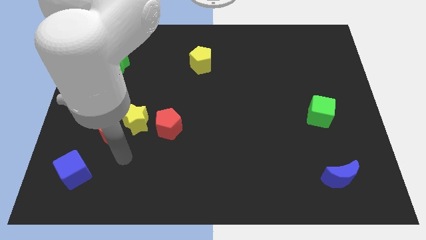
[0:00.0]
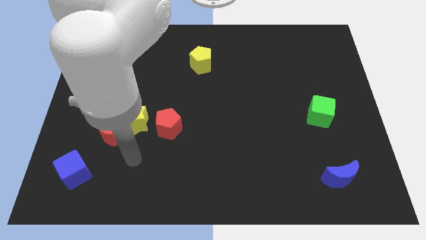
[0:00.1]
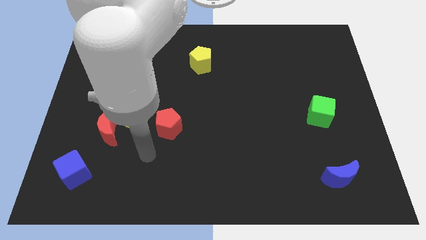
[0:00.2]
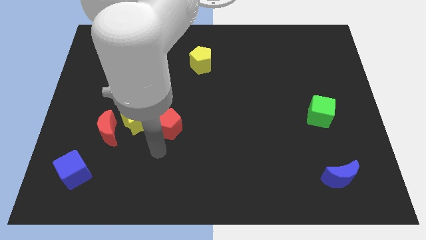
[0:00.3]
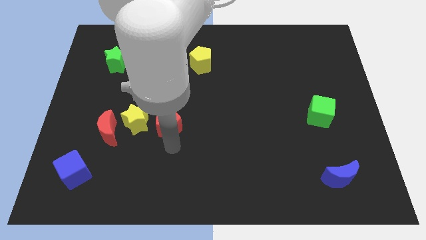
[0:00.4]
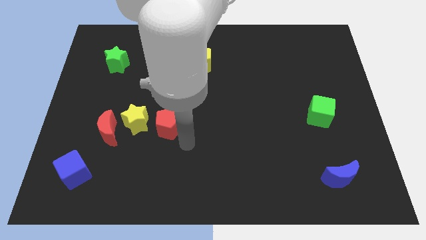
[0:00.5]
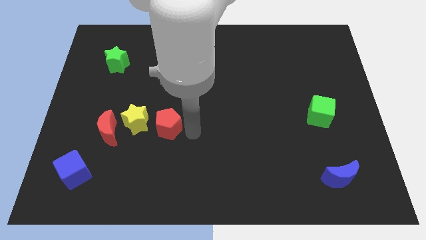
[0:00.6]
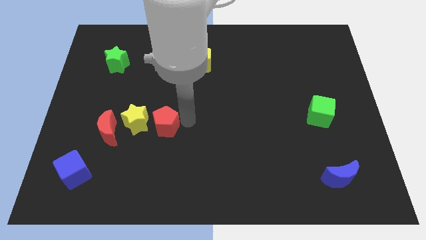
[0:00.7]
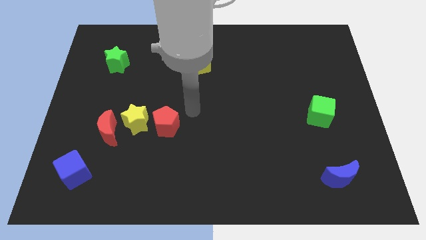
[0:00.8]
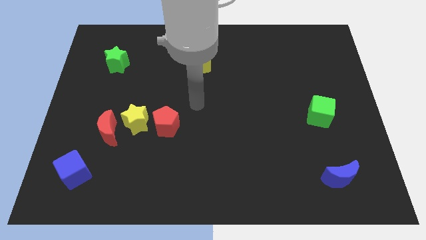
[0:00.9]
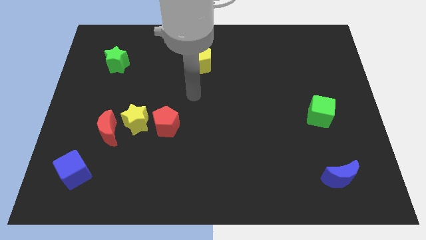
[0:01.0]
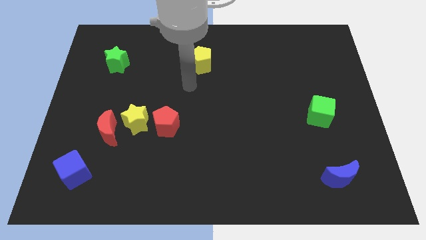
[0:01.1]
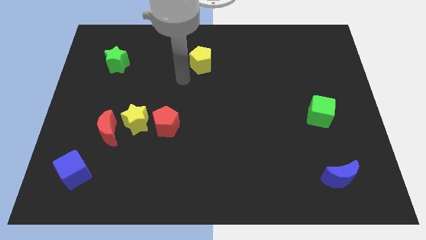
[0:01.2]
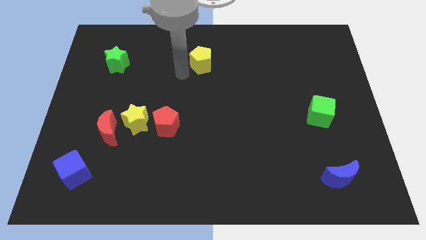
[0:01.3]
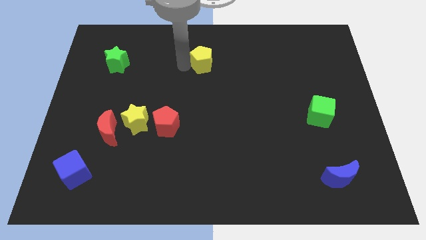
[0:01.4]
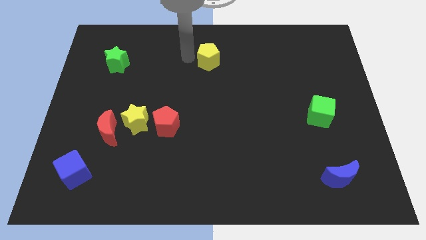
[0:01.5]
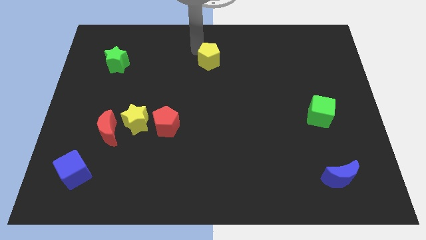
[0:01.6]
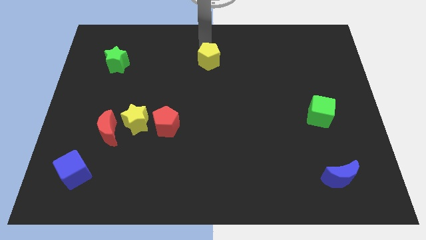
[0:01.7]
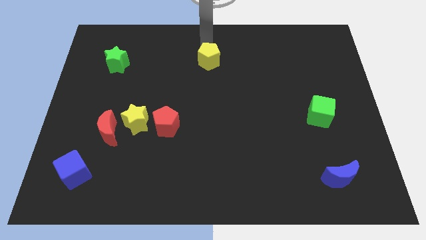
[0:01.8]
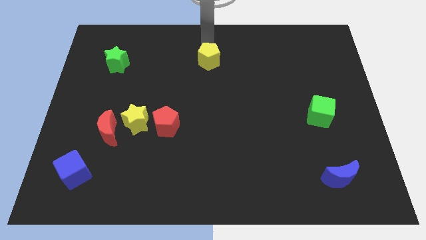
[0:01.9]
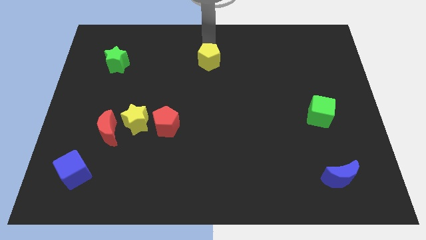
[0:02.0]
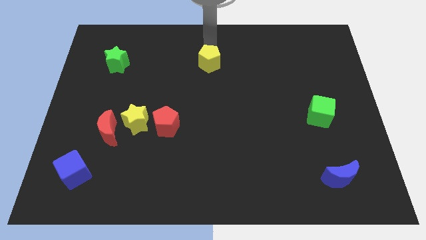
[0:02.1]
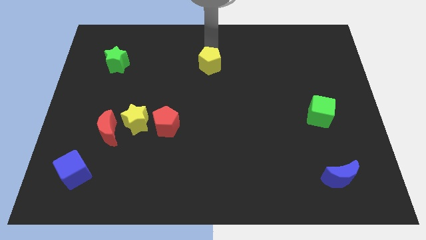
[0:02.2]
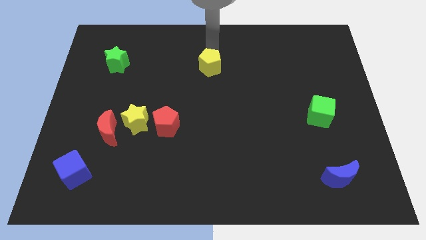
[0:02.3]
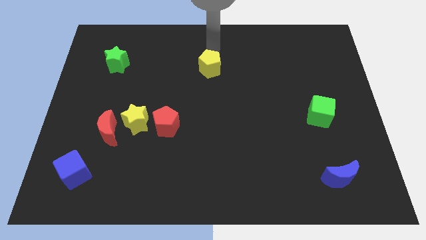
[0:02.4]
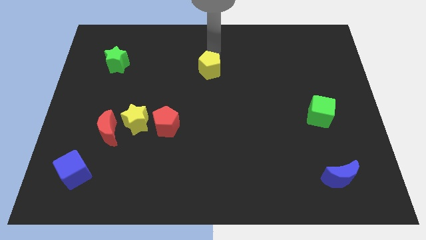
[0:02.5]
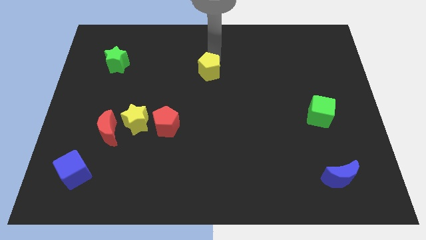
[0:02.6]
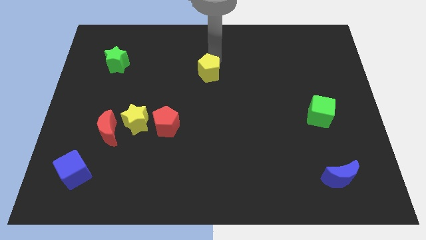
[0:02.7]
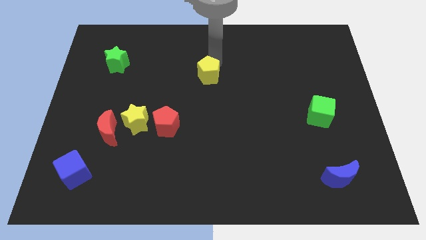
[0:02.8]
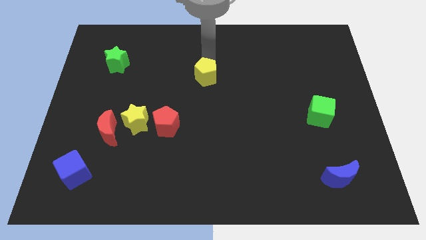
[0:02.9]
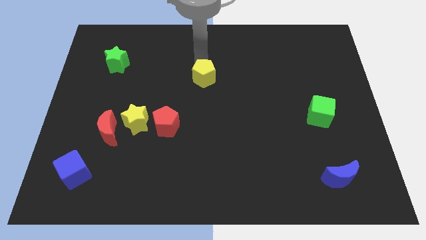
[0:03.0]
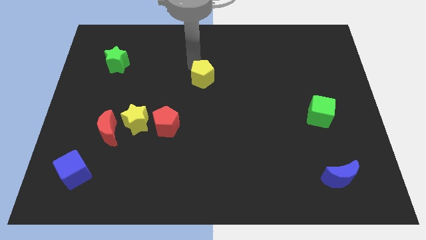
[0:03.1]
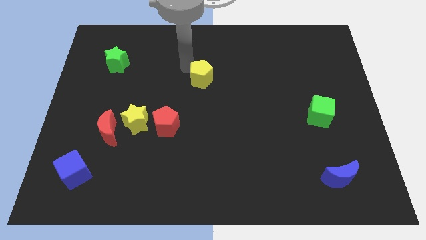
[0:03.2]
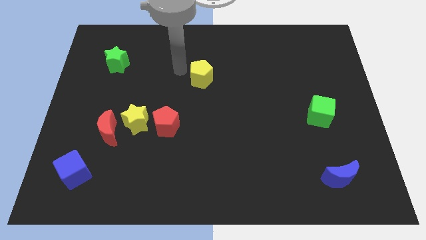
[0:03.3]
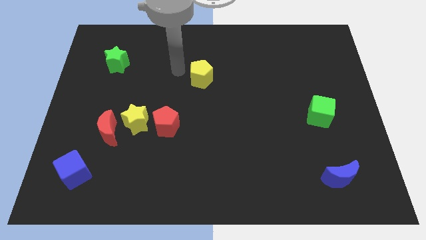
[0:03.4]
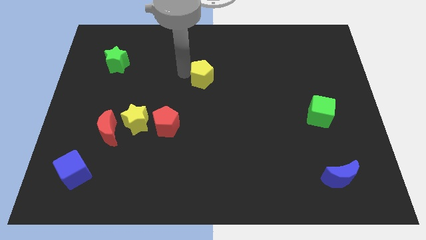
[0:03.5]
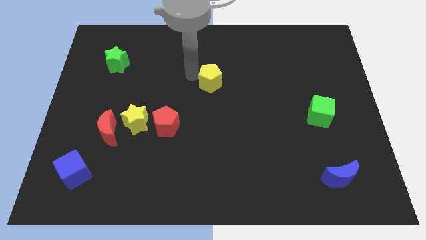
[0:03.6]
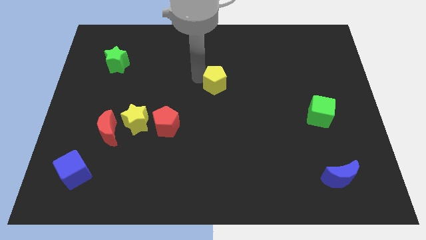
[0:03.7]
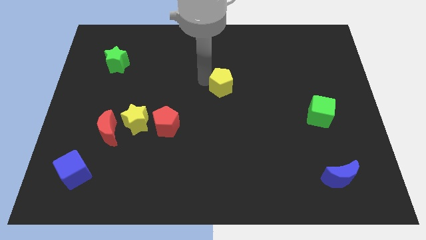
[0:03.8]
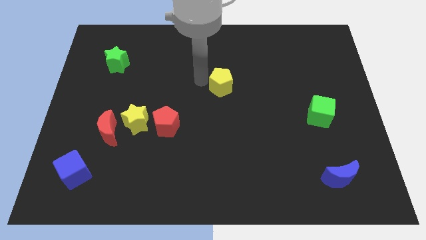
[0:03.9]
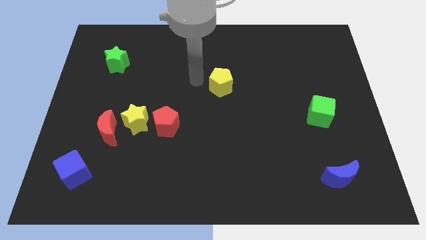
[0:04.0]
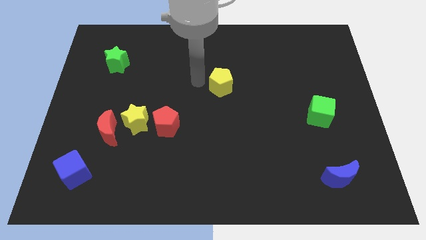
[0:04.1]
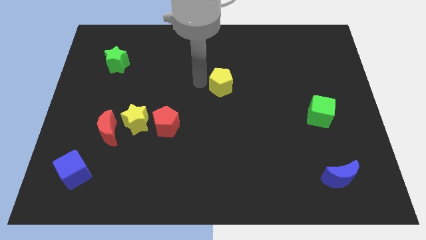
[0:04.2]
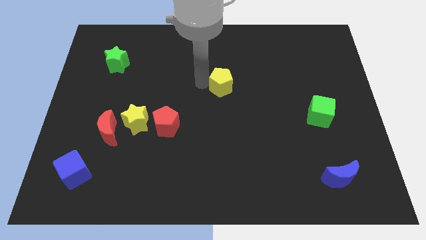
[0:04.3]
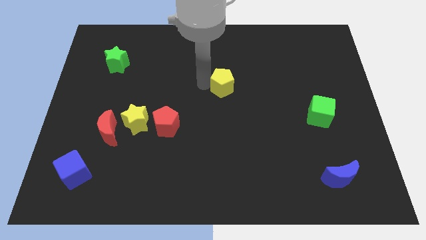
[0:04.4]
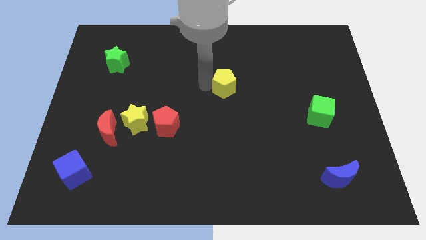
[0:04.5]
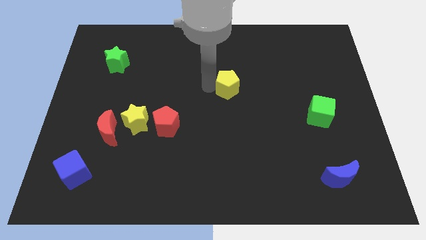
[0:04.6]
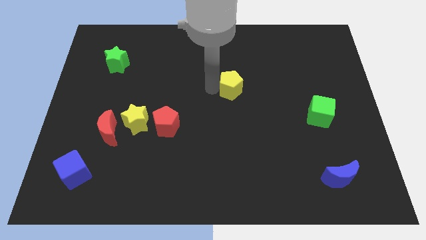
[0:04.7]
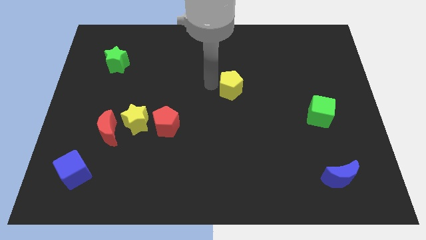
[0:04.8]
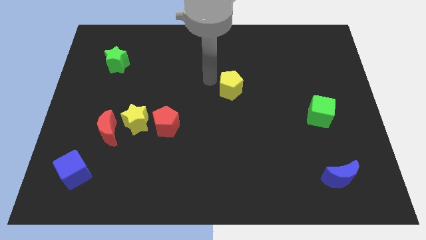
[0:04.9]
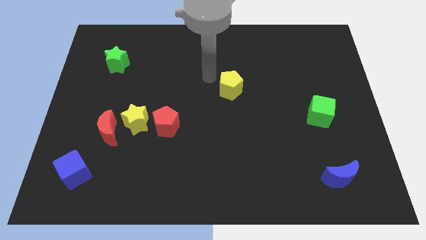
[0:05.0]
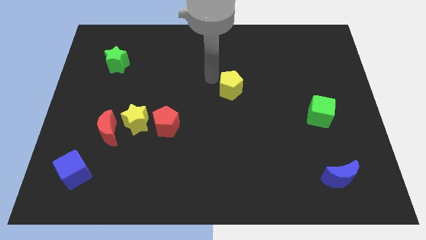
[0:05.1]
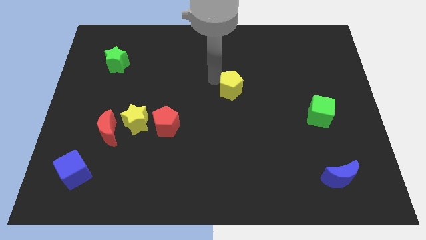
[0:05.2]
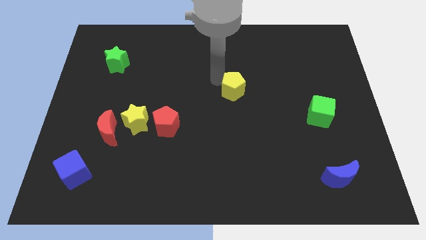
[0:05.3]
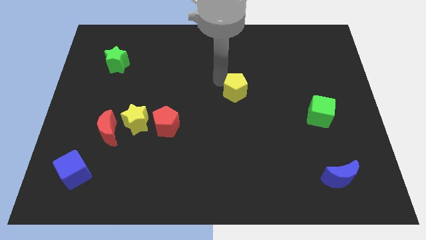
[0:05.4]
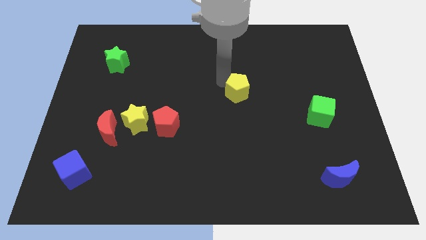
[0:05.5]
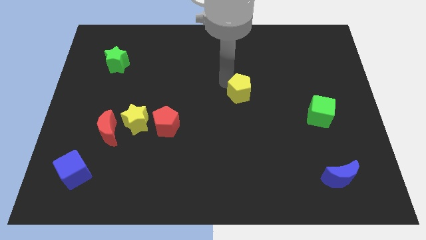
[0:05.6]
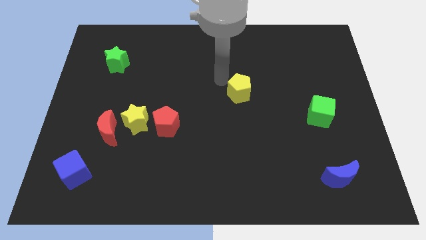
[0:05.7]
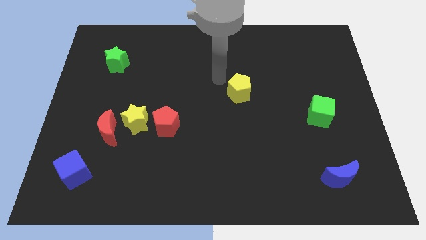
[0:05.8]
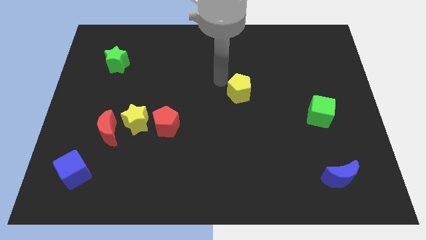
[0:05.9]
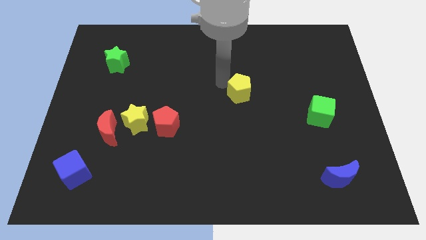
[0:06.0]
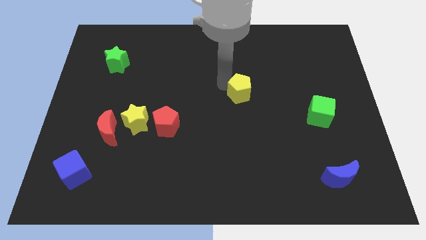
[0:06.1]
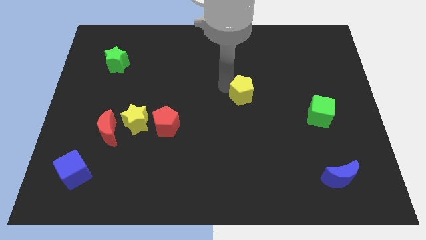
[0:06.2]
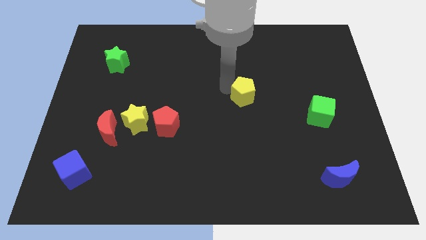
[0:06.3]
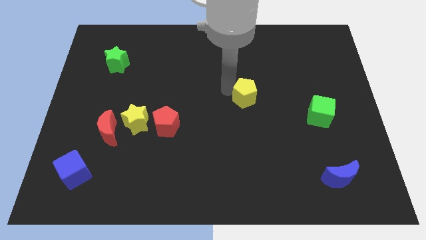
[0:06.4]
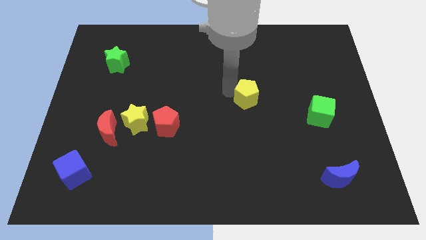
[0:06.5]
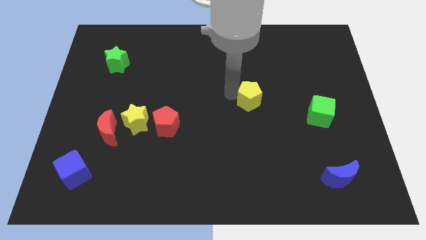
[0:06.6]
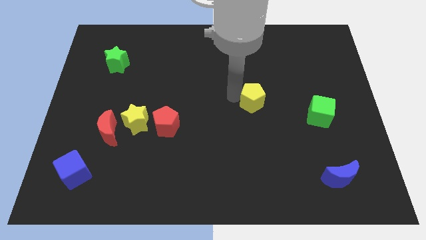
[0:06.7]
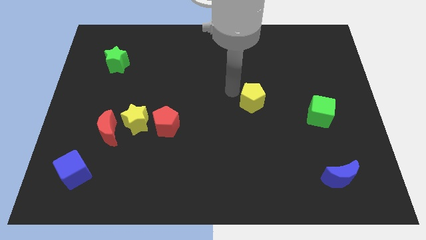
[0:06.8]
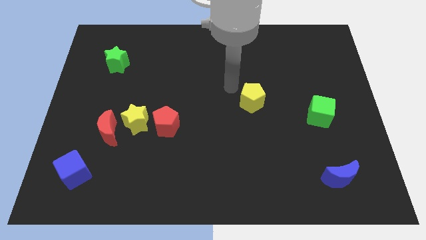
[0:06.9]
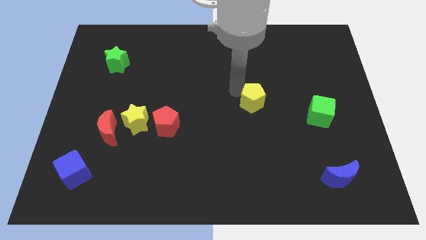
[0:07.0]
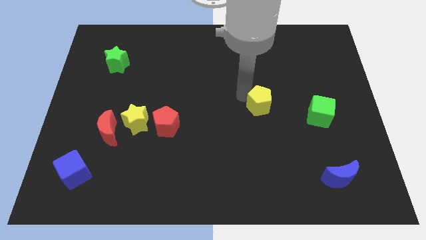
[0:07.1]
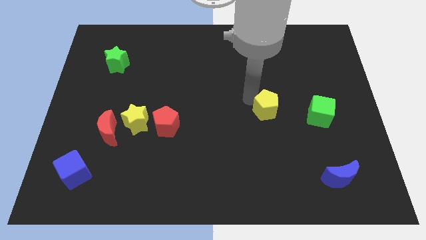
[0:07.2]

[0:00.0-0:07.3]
slide the yellow pentagon down and then to the right

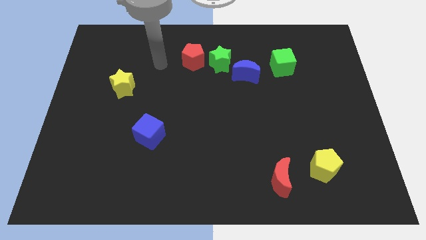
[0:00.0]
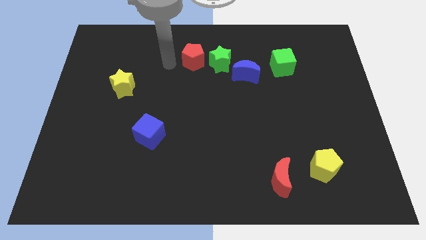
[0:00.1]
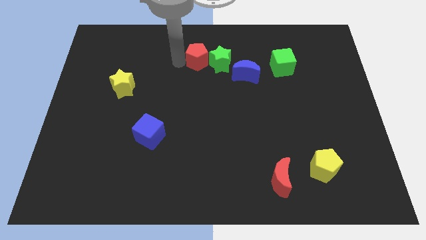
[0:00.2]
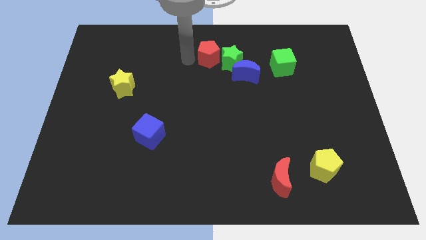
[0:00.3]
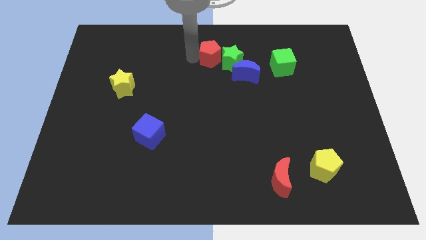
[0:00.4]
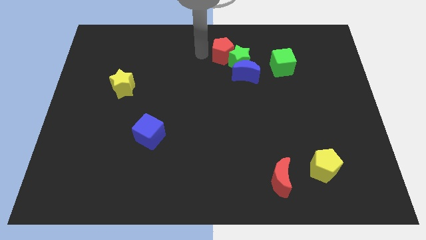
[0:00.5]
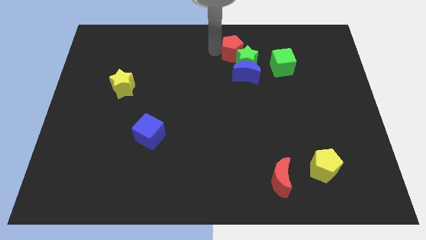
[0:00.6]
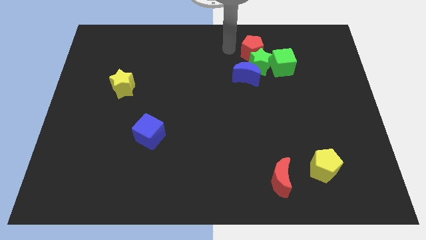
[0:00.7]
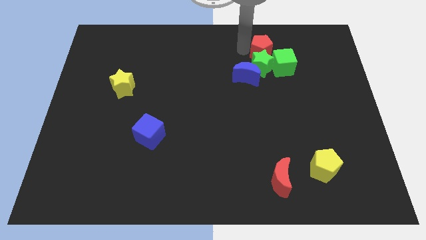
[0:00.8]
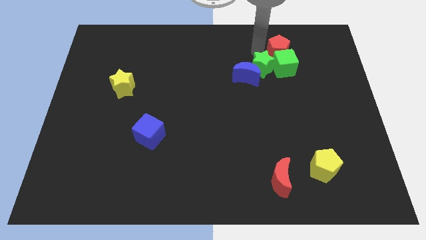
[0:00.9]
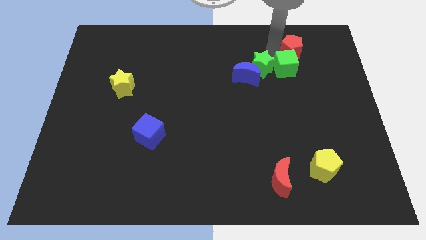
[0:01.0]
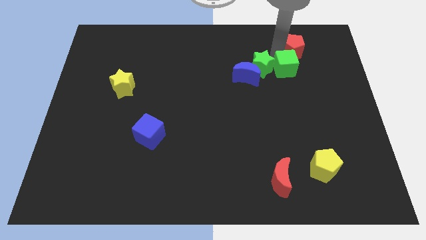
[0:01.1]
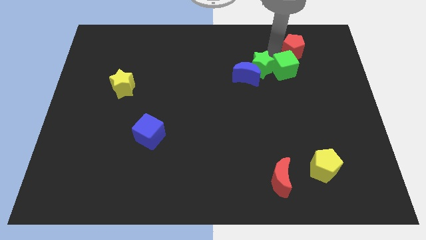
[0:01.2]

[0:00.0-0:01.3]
slide the green star diagonally downwards and right a bit
